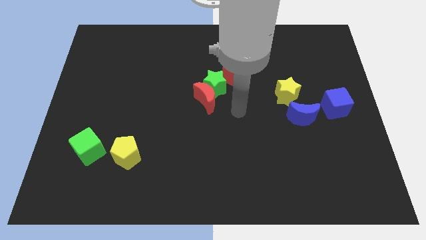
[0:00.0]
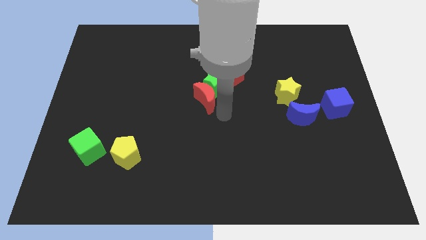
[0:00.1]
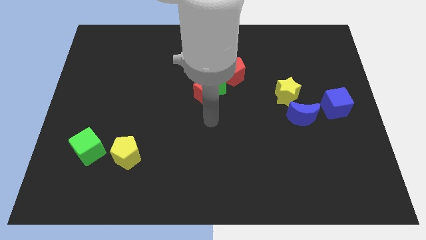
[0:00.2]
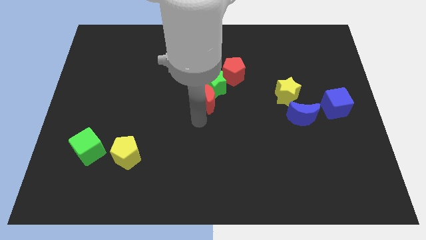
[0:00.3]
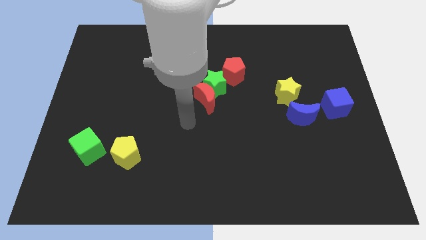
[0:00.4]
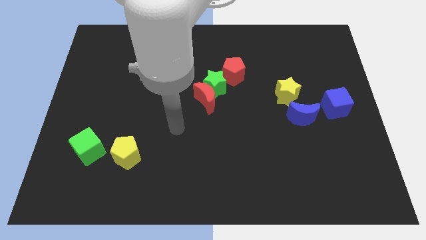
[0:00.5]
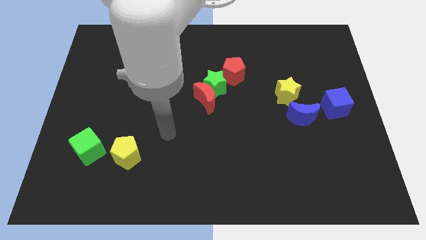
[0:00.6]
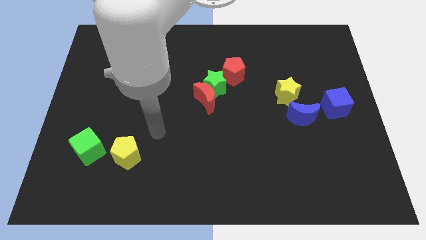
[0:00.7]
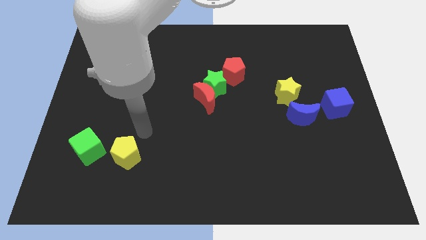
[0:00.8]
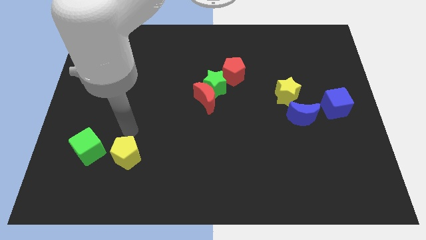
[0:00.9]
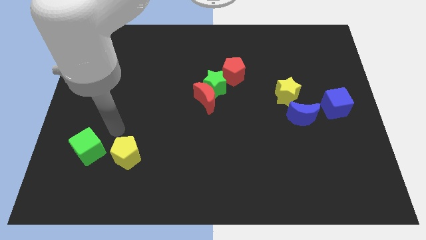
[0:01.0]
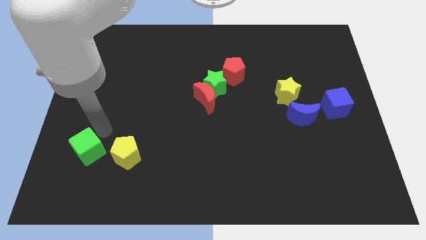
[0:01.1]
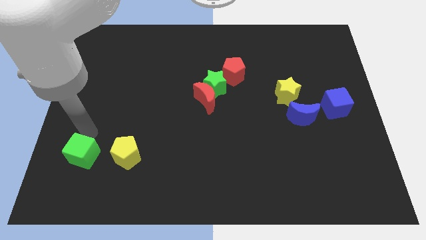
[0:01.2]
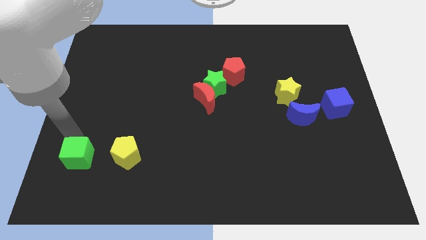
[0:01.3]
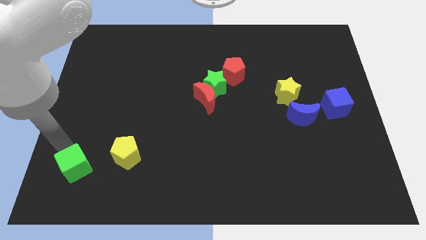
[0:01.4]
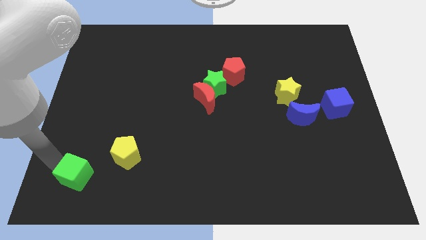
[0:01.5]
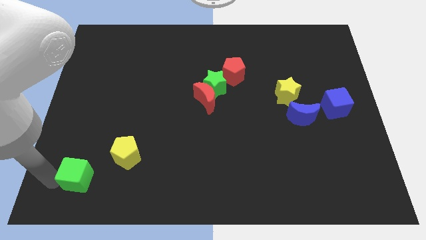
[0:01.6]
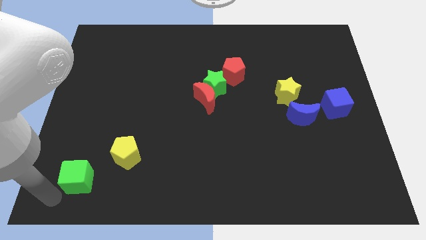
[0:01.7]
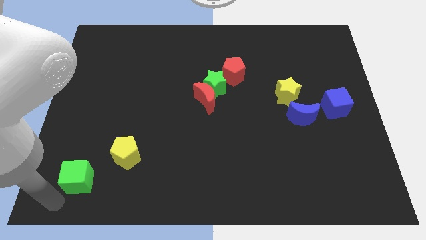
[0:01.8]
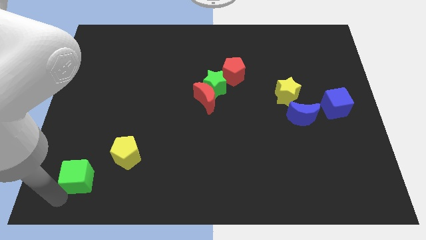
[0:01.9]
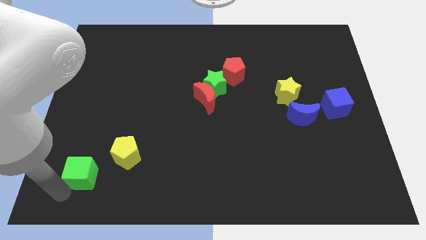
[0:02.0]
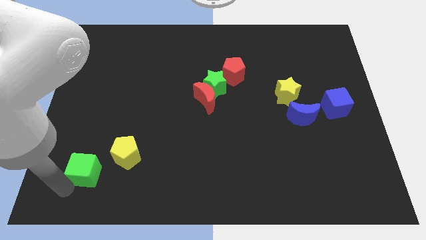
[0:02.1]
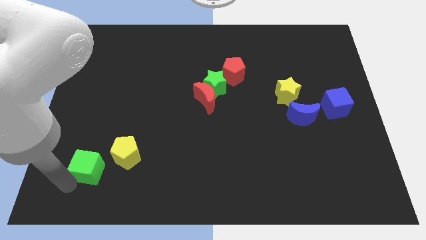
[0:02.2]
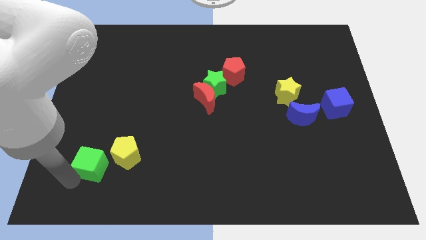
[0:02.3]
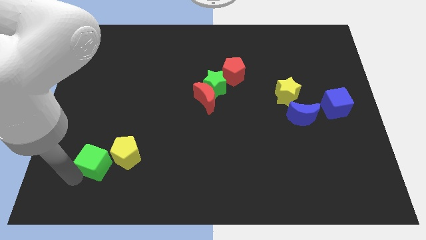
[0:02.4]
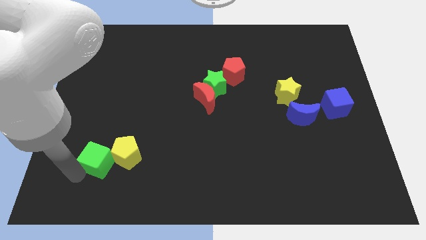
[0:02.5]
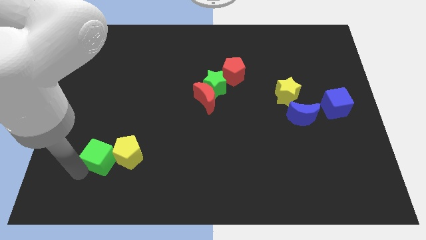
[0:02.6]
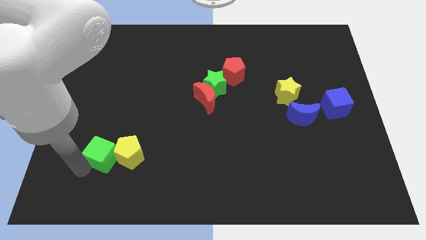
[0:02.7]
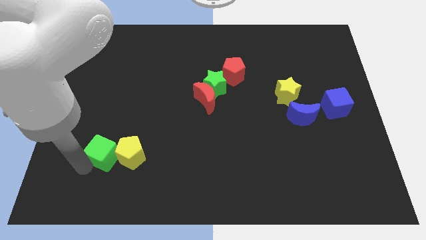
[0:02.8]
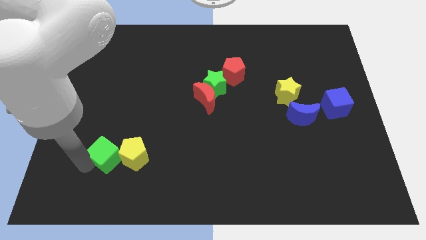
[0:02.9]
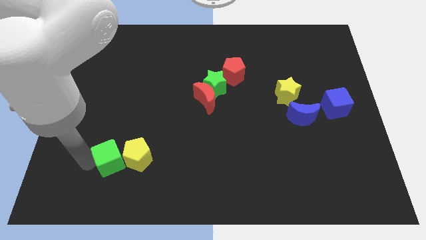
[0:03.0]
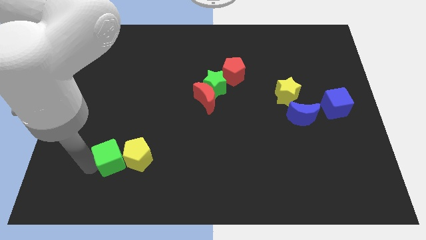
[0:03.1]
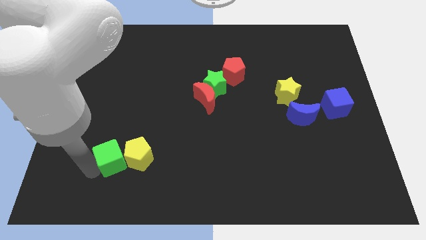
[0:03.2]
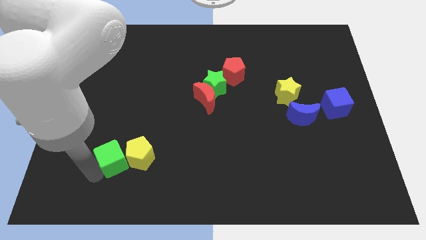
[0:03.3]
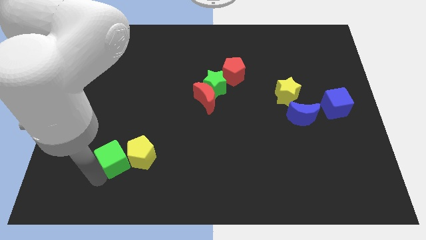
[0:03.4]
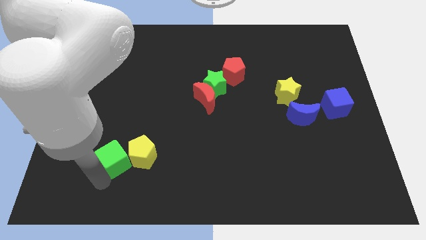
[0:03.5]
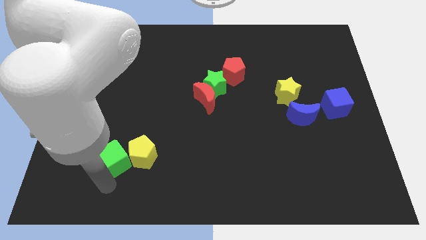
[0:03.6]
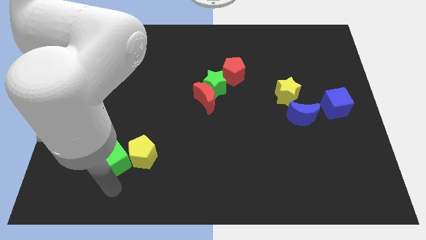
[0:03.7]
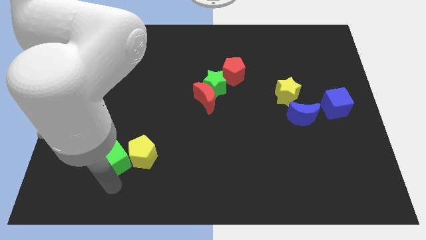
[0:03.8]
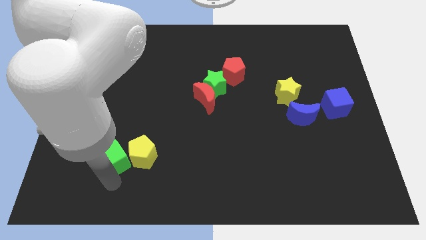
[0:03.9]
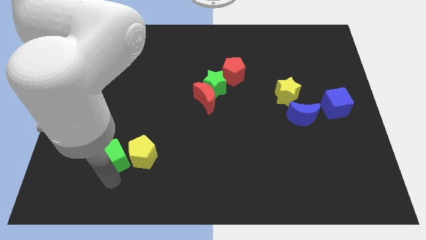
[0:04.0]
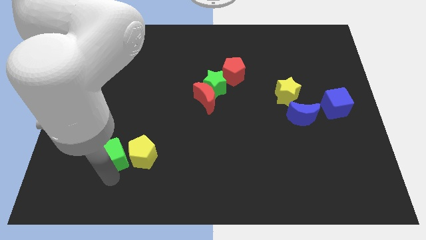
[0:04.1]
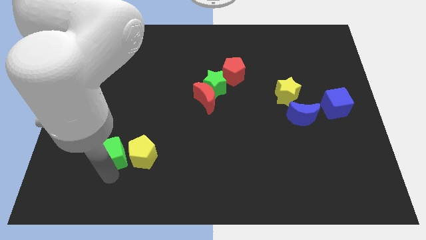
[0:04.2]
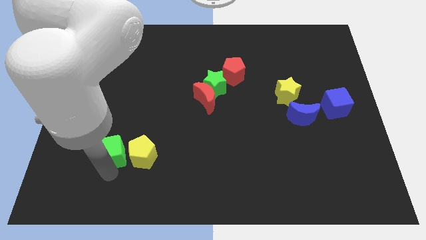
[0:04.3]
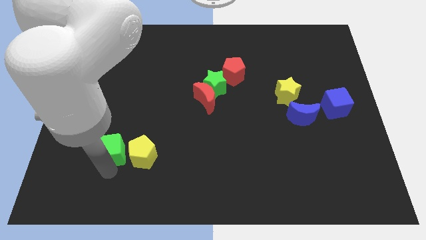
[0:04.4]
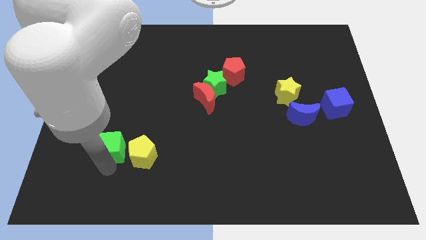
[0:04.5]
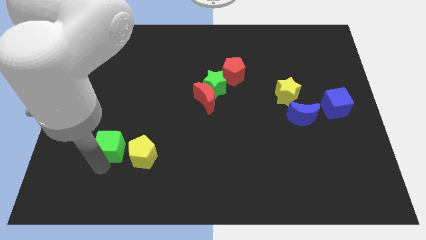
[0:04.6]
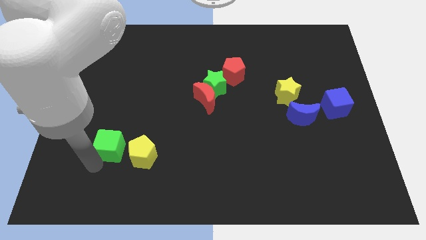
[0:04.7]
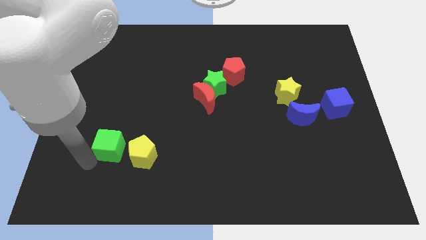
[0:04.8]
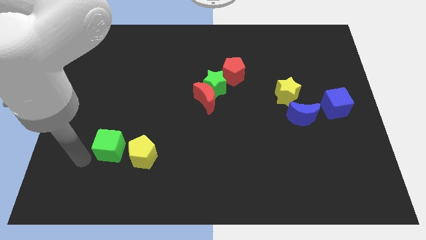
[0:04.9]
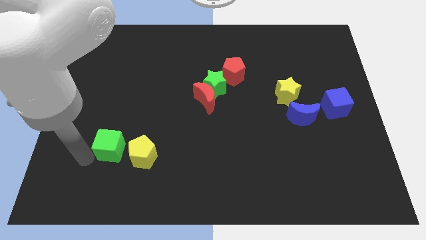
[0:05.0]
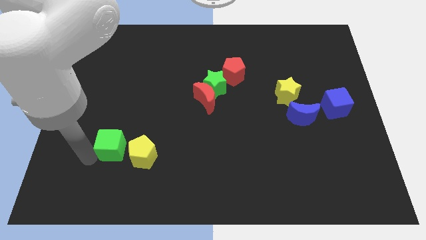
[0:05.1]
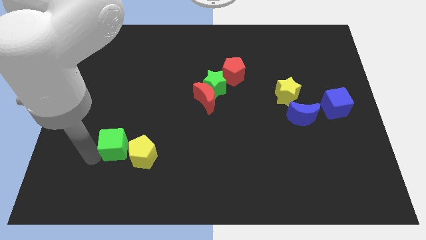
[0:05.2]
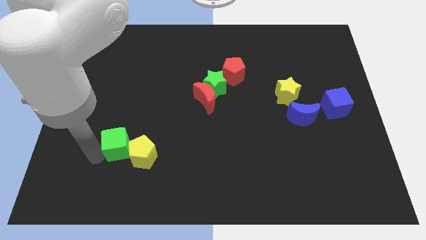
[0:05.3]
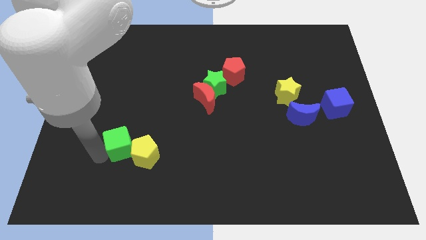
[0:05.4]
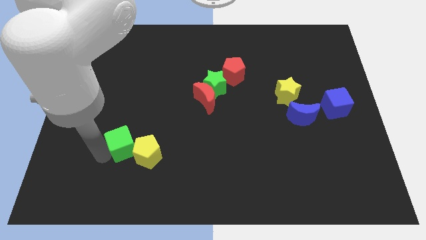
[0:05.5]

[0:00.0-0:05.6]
push the green cube right a little

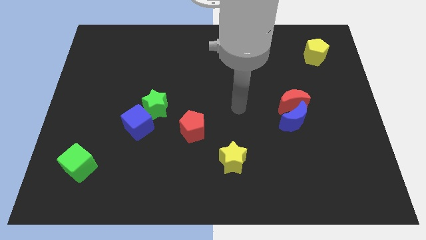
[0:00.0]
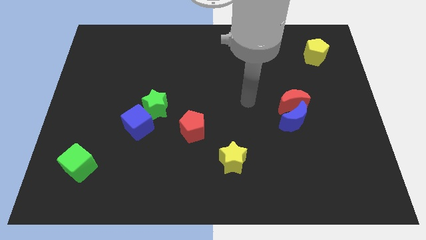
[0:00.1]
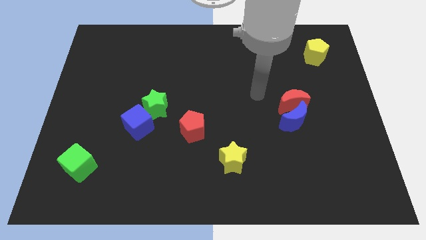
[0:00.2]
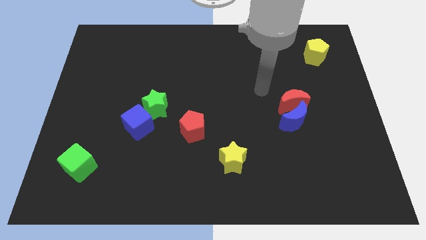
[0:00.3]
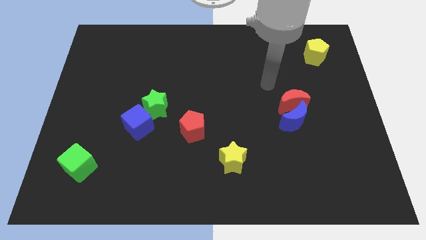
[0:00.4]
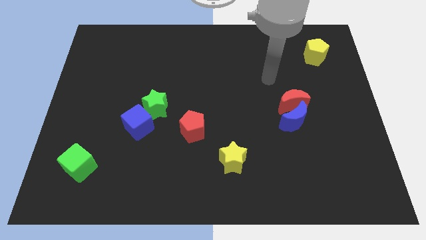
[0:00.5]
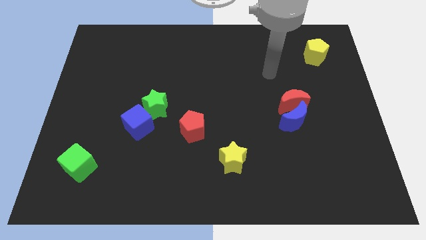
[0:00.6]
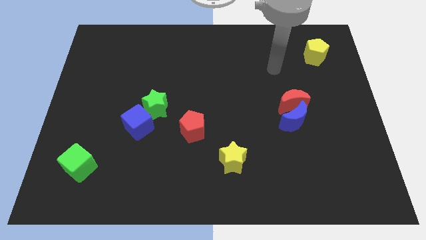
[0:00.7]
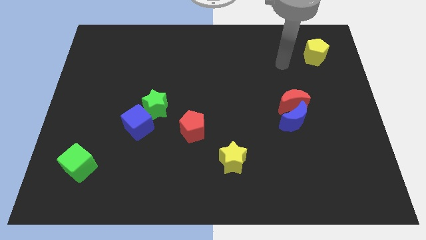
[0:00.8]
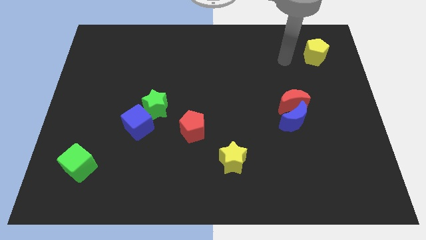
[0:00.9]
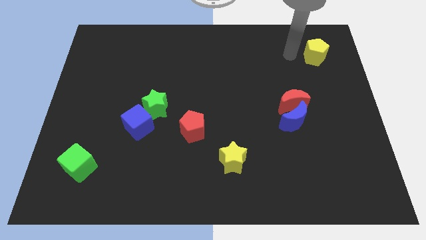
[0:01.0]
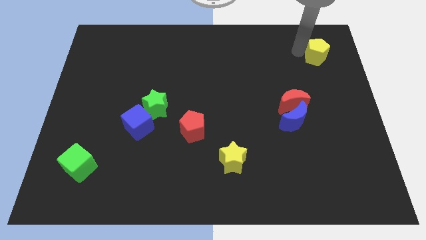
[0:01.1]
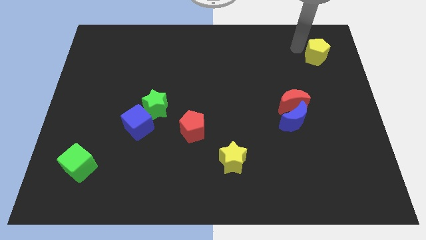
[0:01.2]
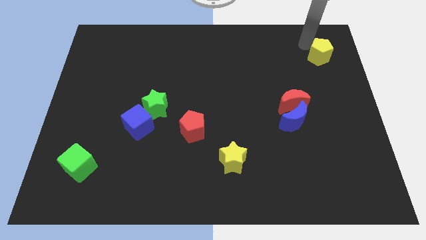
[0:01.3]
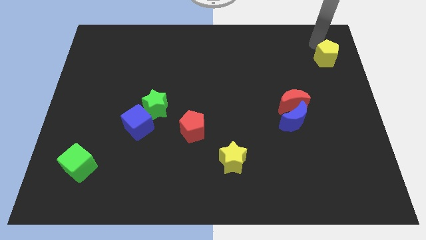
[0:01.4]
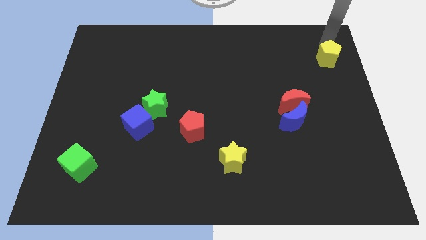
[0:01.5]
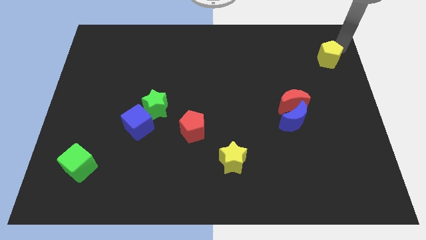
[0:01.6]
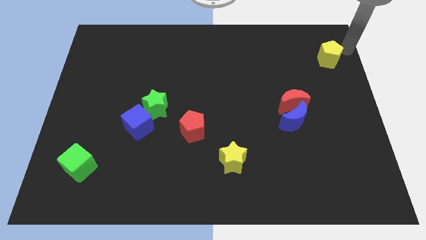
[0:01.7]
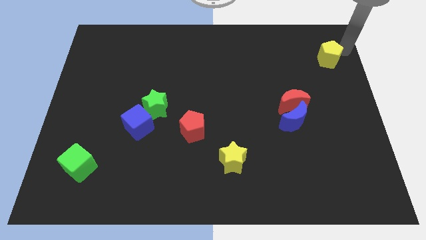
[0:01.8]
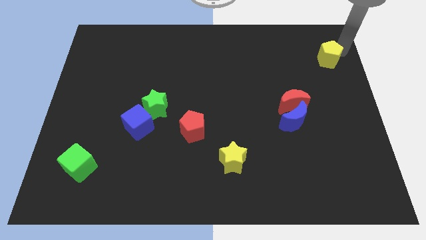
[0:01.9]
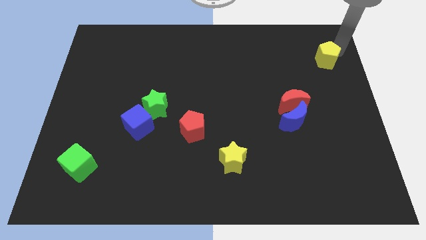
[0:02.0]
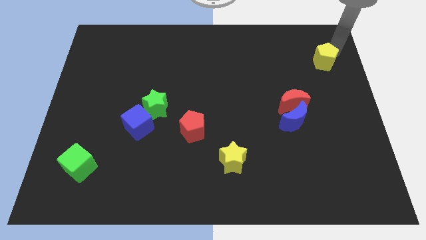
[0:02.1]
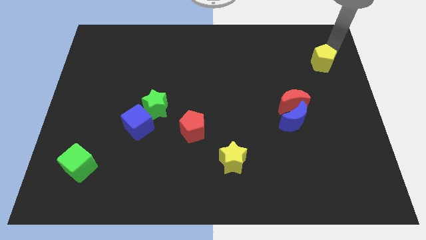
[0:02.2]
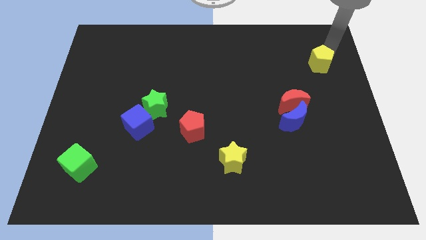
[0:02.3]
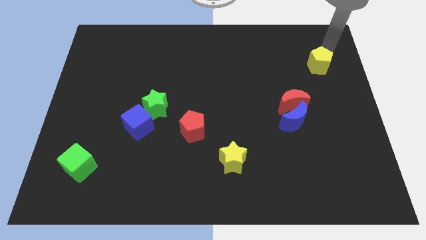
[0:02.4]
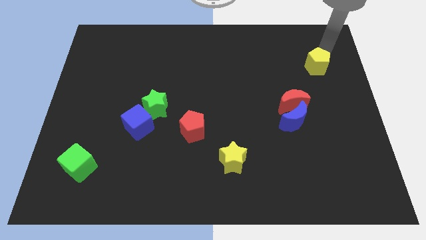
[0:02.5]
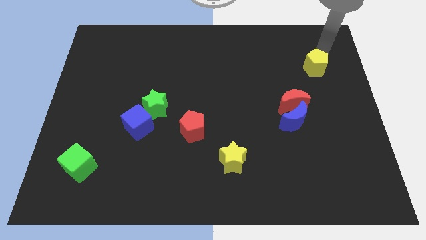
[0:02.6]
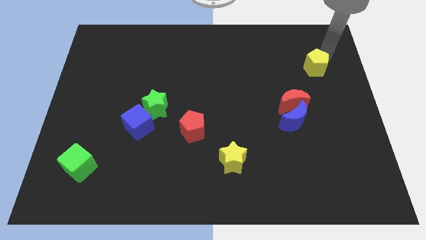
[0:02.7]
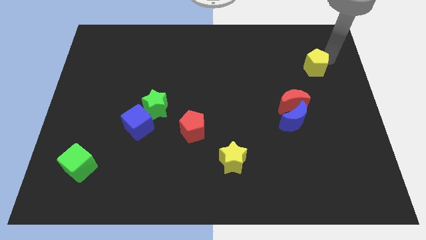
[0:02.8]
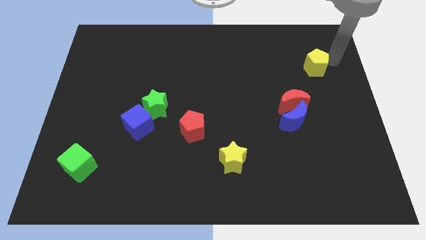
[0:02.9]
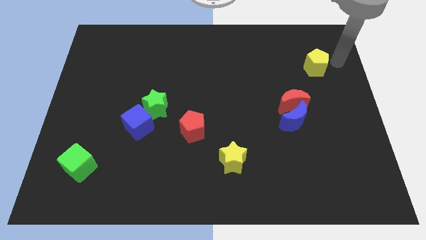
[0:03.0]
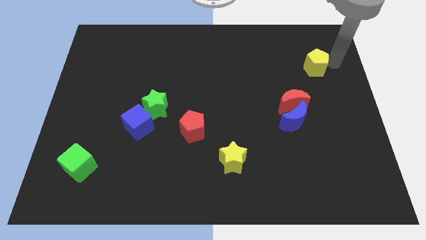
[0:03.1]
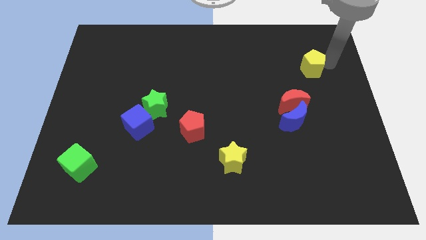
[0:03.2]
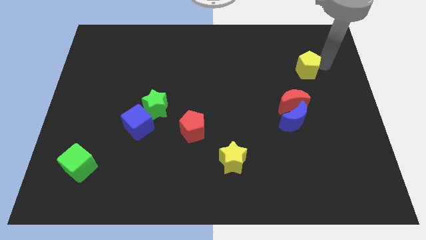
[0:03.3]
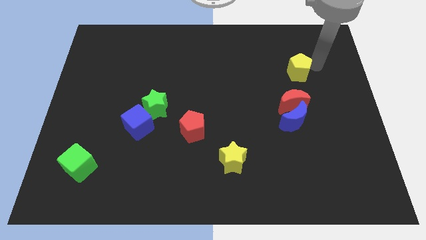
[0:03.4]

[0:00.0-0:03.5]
push the yellow pentagon somewhat downwards and then left
